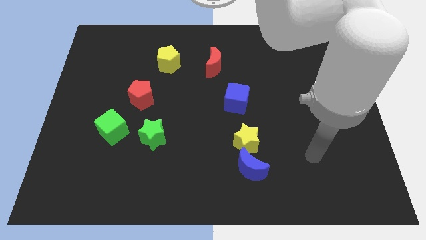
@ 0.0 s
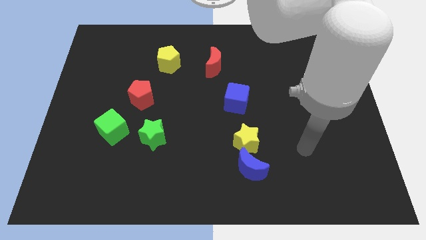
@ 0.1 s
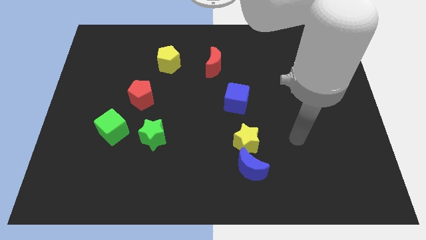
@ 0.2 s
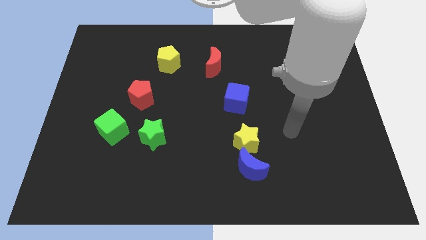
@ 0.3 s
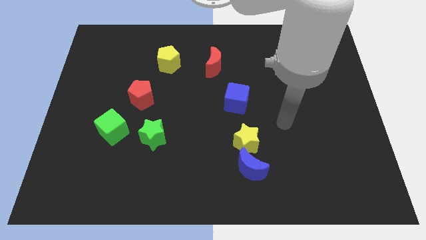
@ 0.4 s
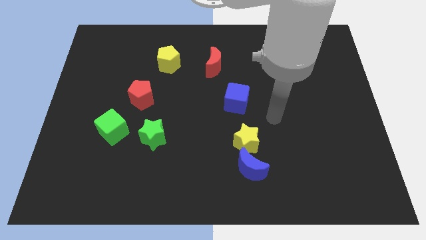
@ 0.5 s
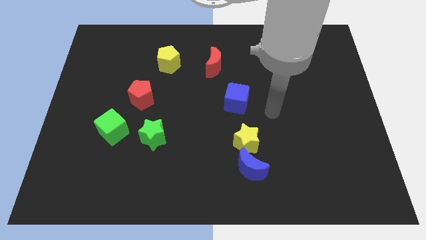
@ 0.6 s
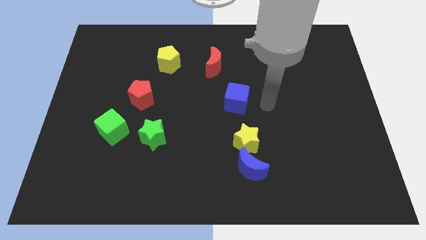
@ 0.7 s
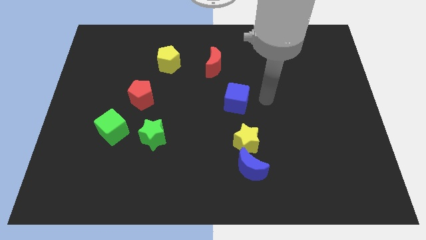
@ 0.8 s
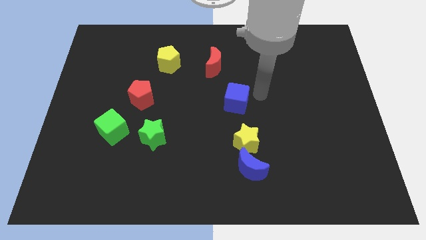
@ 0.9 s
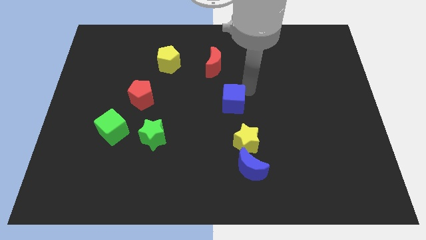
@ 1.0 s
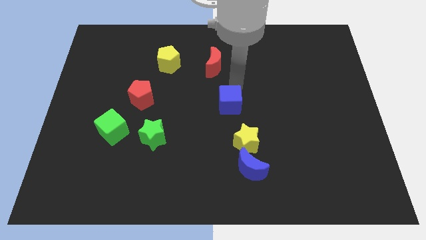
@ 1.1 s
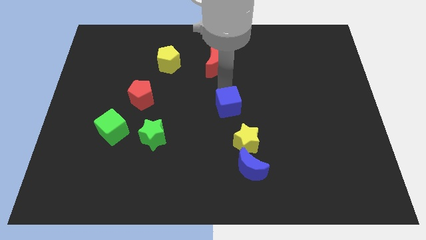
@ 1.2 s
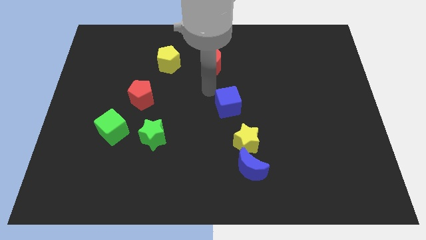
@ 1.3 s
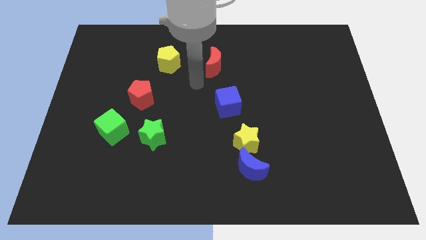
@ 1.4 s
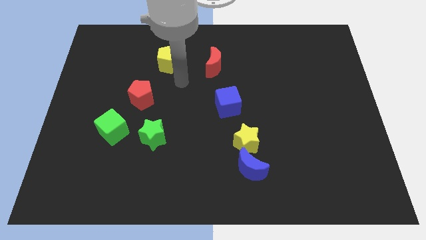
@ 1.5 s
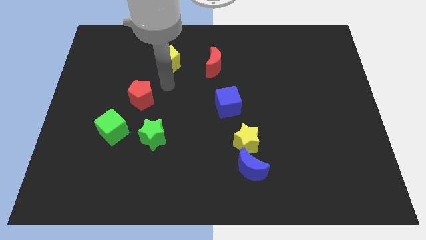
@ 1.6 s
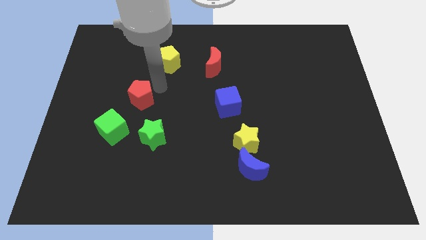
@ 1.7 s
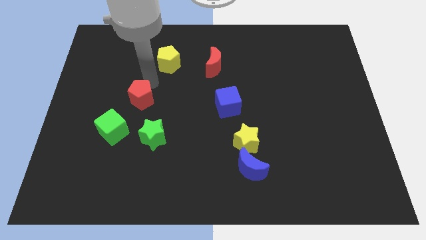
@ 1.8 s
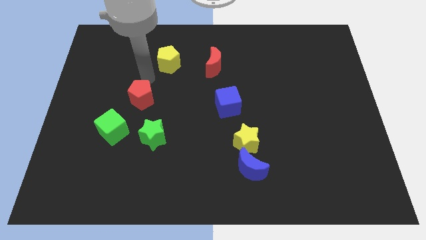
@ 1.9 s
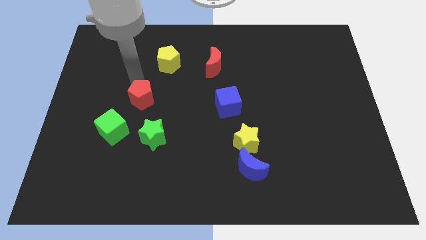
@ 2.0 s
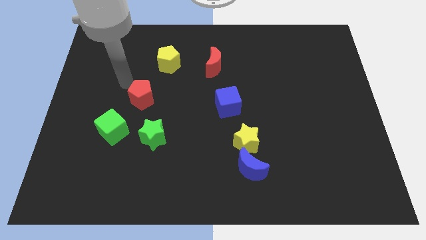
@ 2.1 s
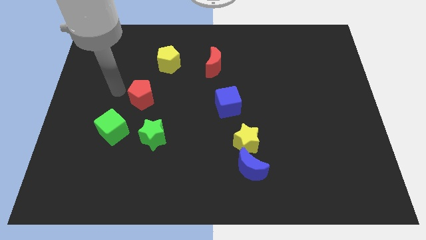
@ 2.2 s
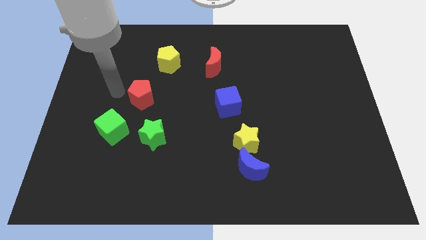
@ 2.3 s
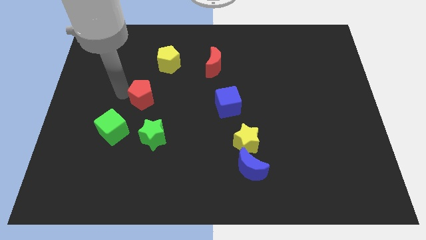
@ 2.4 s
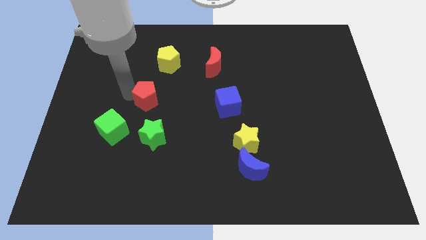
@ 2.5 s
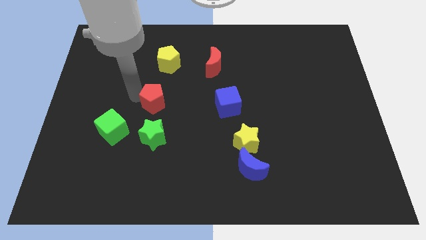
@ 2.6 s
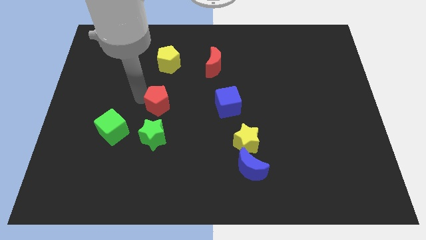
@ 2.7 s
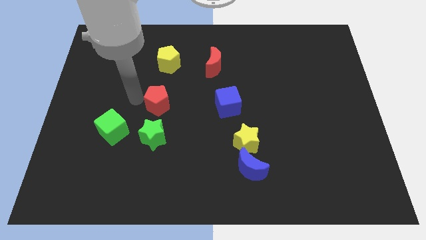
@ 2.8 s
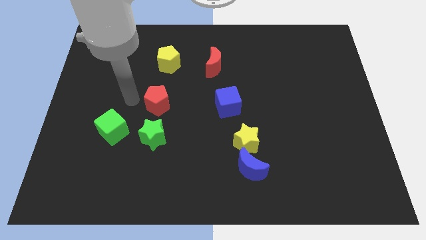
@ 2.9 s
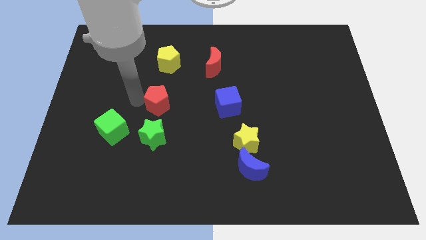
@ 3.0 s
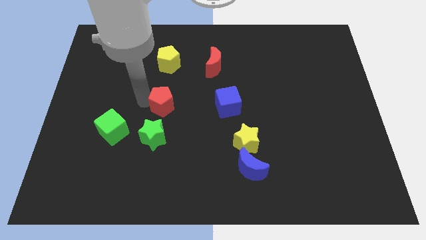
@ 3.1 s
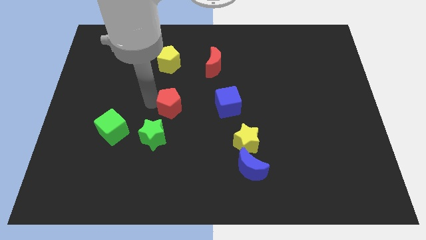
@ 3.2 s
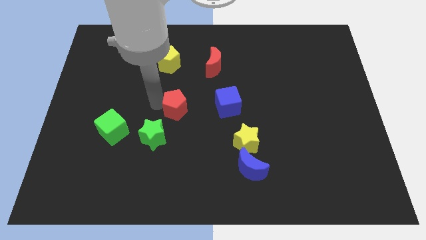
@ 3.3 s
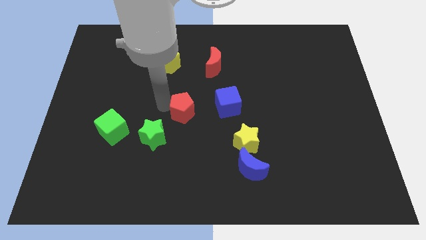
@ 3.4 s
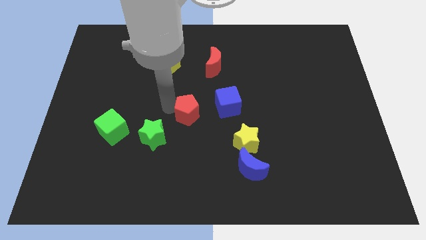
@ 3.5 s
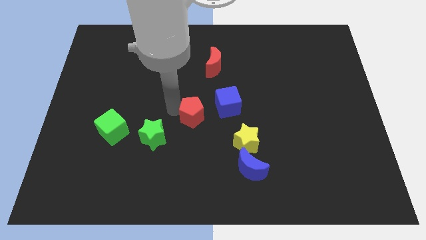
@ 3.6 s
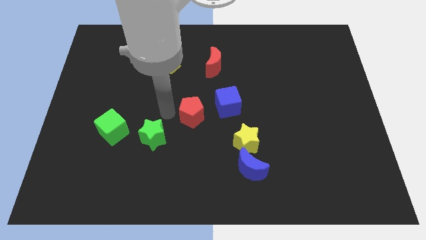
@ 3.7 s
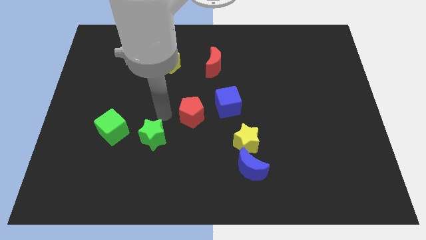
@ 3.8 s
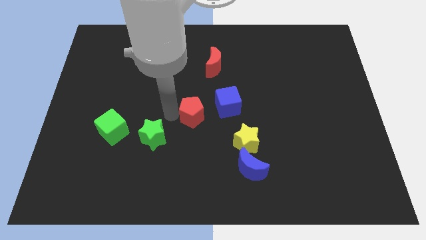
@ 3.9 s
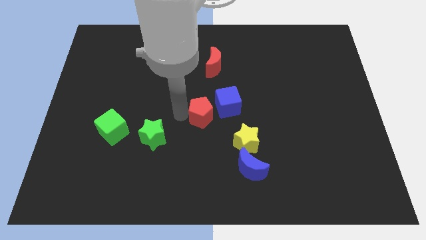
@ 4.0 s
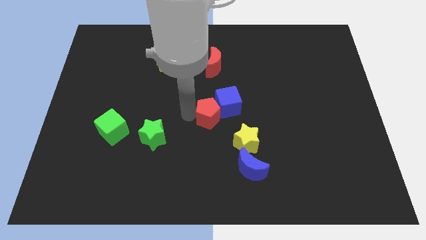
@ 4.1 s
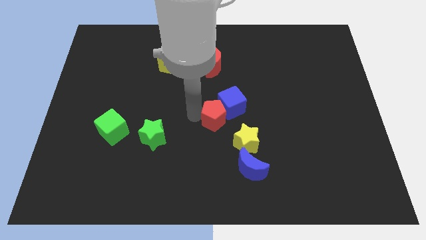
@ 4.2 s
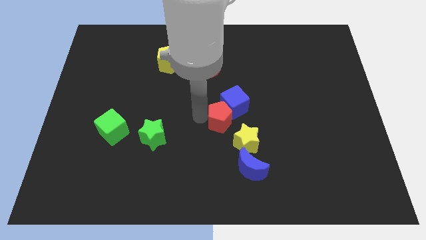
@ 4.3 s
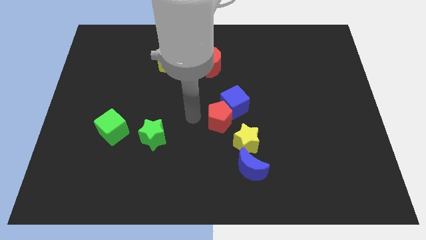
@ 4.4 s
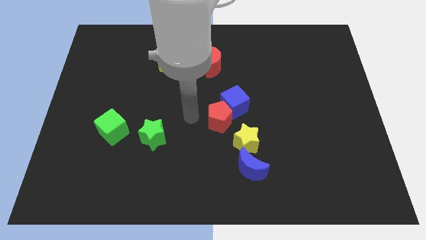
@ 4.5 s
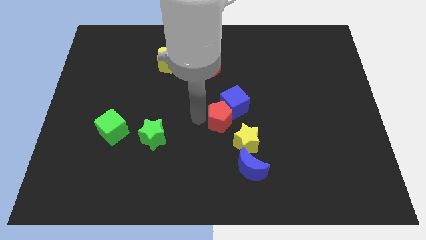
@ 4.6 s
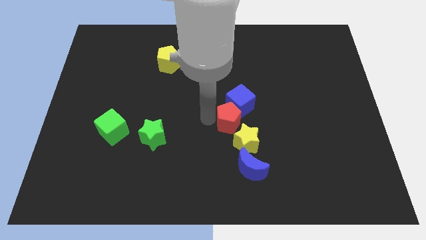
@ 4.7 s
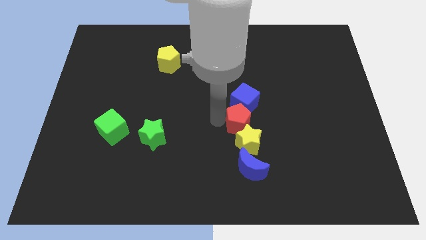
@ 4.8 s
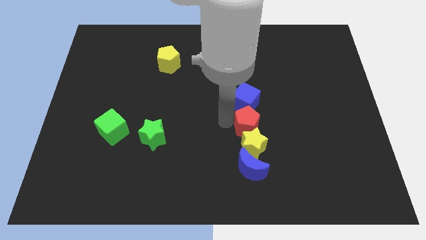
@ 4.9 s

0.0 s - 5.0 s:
move the red pentagon to the bottom right of the blue cube

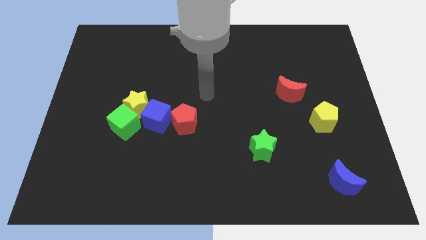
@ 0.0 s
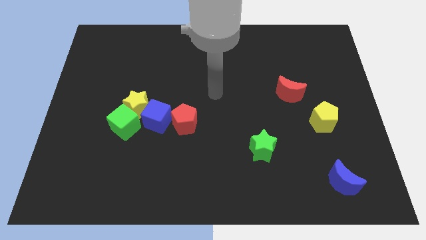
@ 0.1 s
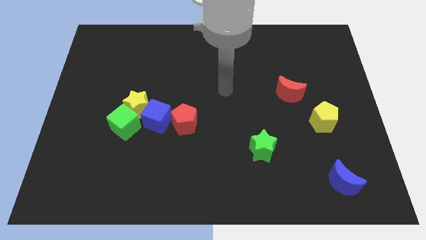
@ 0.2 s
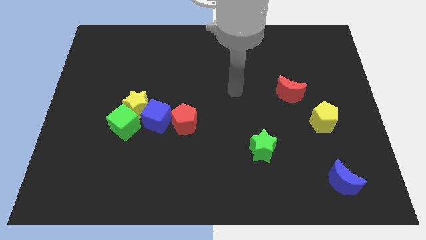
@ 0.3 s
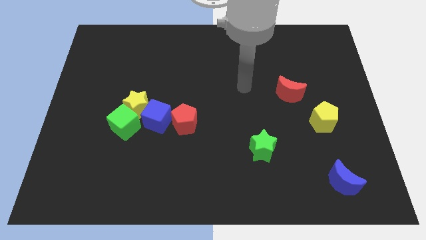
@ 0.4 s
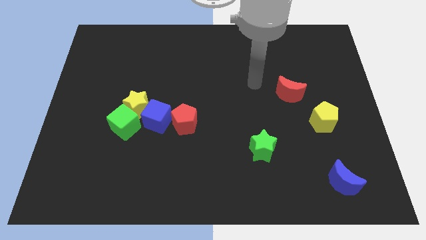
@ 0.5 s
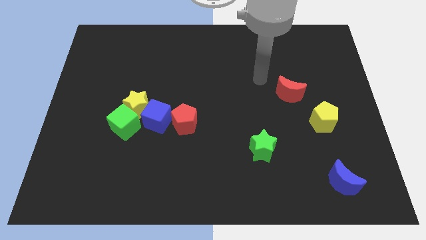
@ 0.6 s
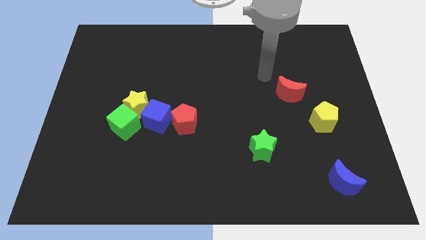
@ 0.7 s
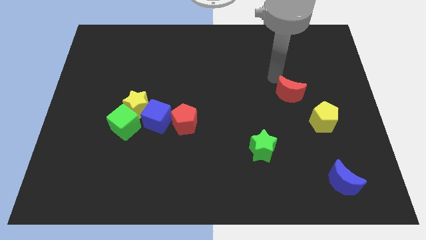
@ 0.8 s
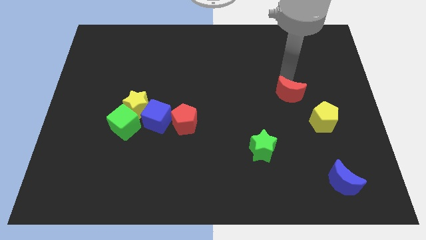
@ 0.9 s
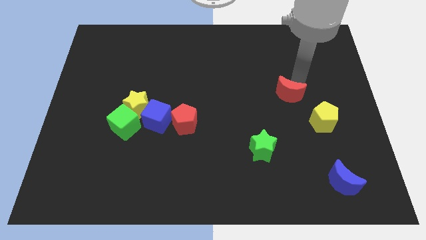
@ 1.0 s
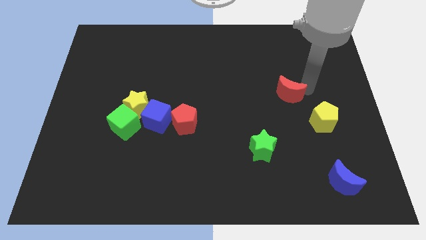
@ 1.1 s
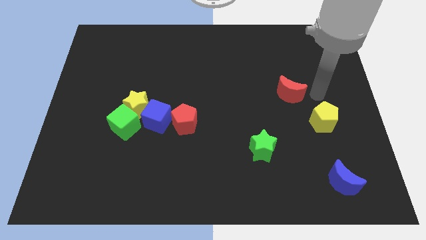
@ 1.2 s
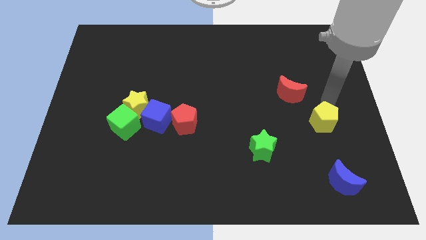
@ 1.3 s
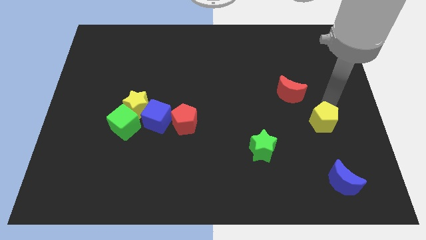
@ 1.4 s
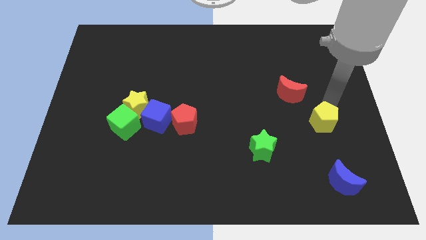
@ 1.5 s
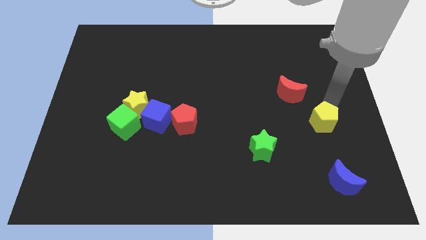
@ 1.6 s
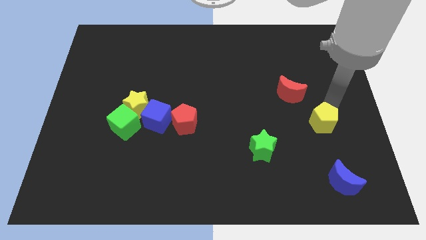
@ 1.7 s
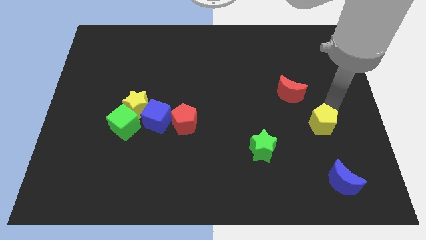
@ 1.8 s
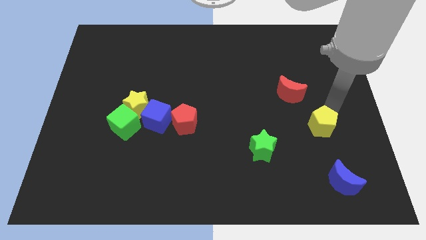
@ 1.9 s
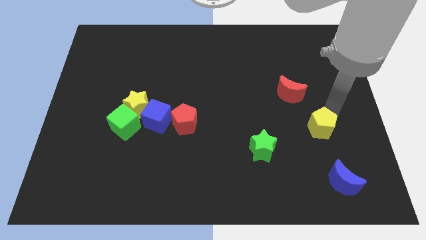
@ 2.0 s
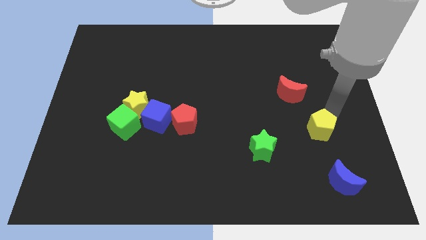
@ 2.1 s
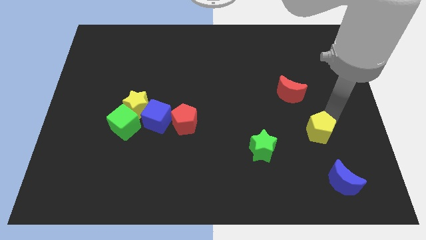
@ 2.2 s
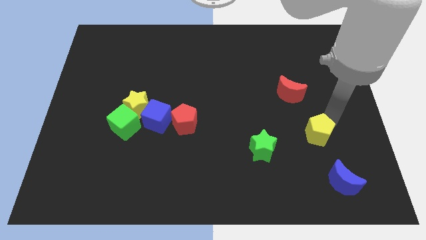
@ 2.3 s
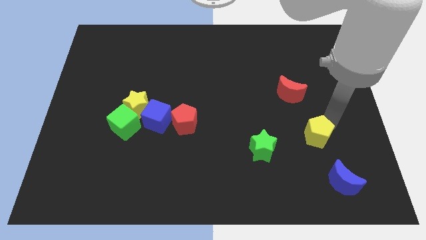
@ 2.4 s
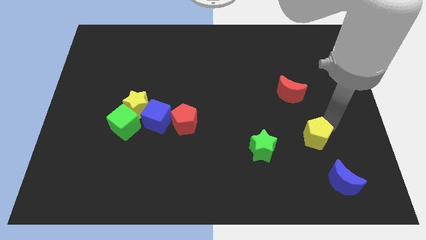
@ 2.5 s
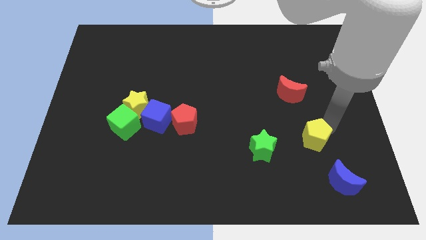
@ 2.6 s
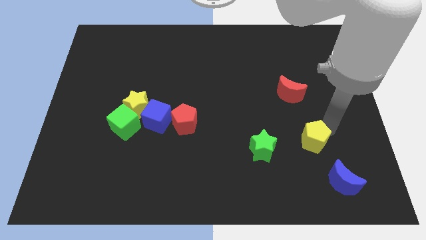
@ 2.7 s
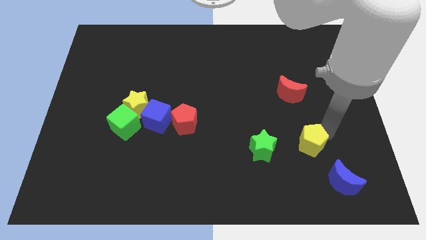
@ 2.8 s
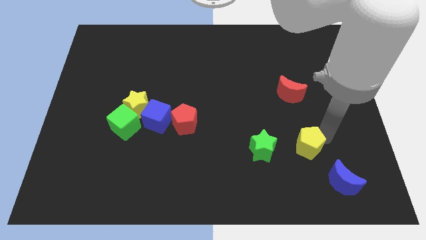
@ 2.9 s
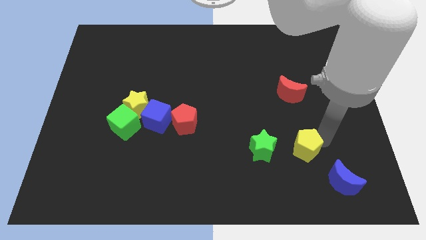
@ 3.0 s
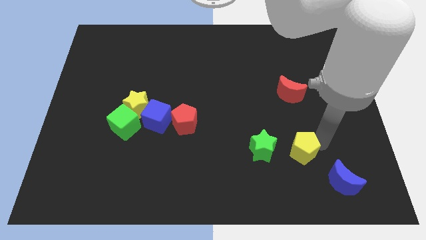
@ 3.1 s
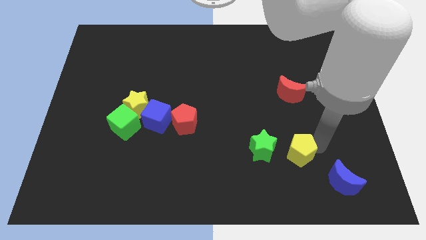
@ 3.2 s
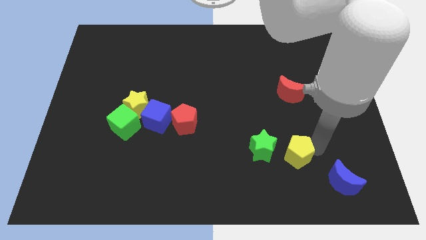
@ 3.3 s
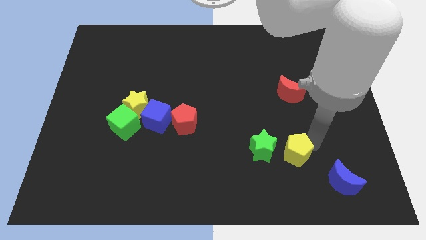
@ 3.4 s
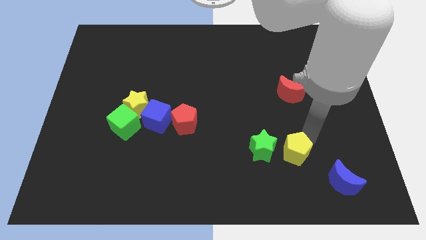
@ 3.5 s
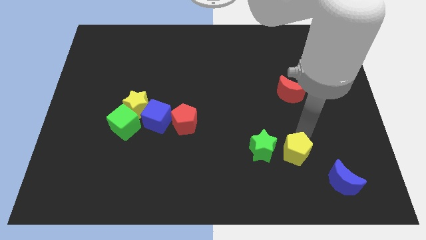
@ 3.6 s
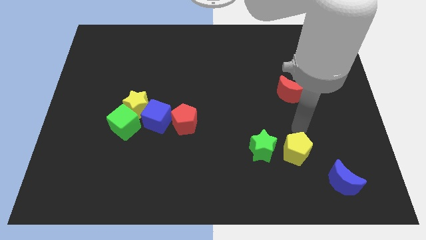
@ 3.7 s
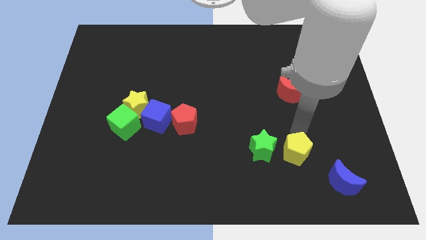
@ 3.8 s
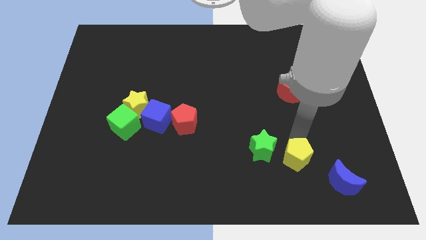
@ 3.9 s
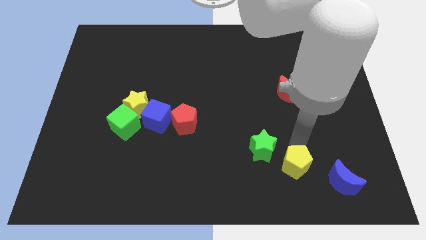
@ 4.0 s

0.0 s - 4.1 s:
move the yellow pentagon to the left of the blue moon
